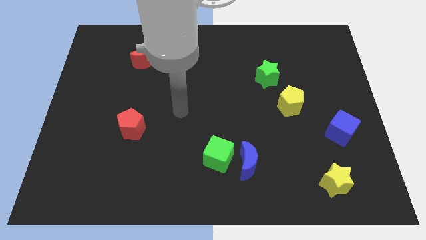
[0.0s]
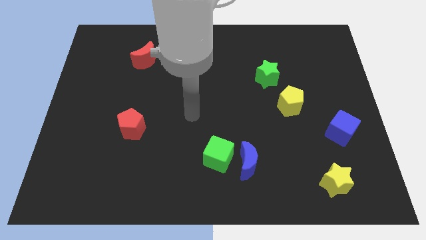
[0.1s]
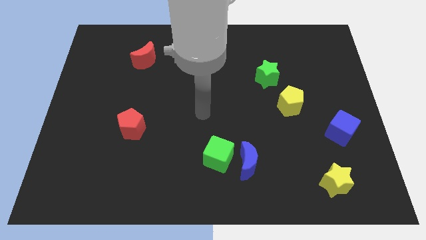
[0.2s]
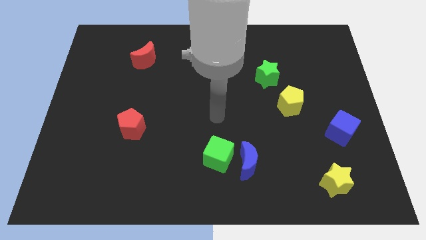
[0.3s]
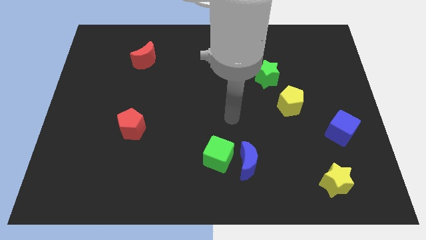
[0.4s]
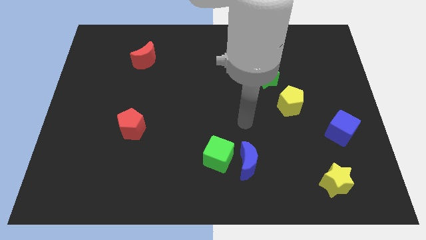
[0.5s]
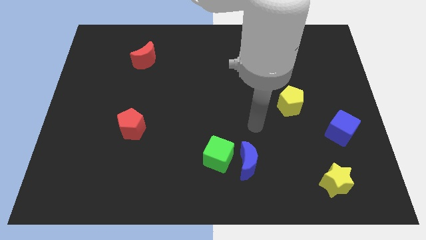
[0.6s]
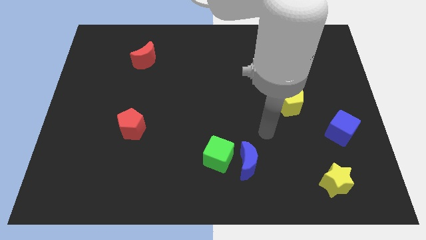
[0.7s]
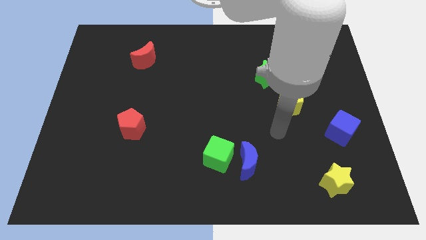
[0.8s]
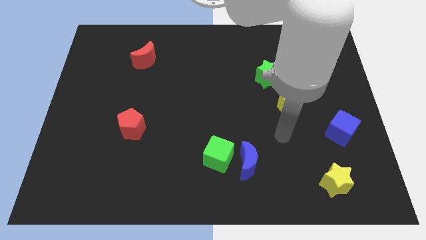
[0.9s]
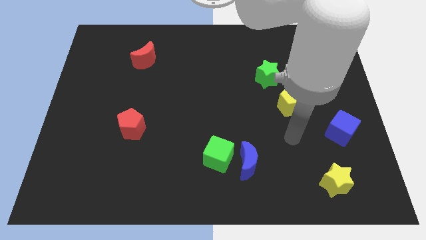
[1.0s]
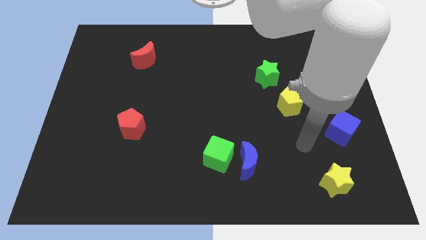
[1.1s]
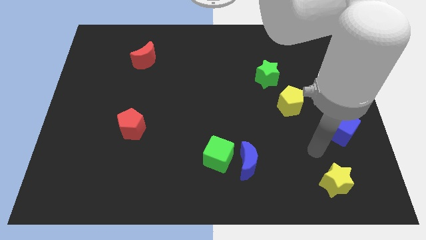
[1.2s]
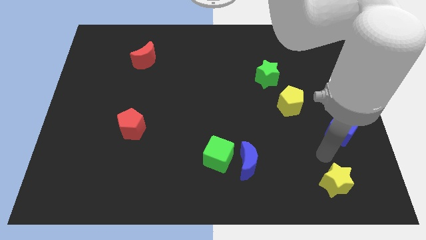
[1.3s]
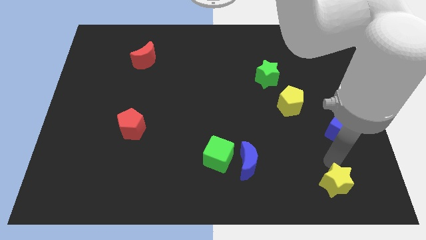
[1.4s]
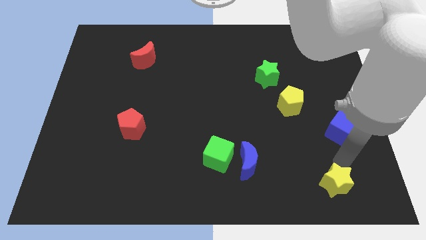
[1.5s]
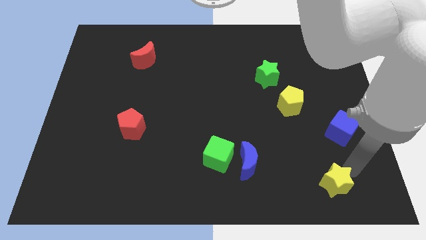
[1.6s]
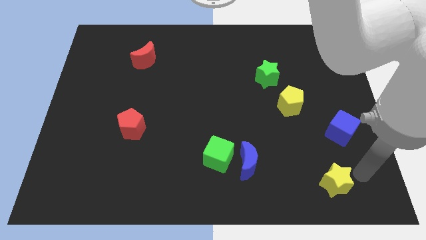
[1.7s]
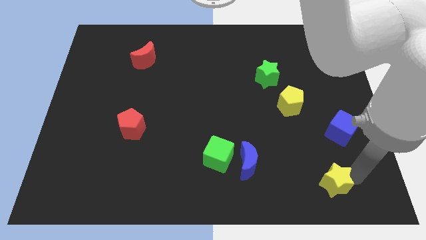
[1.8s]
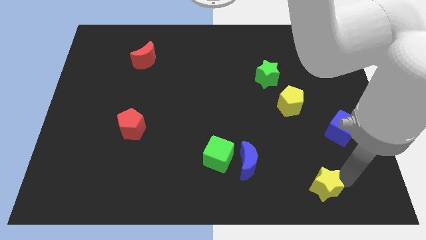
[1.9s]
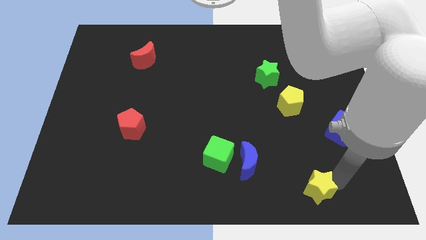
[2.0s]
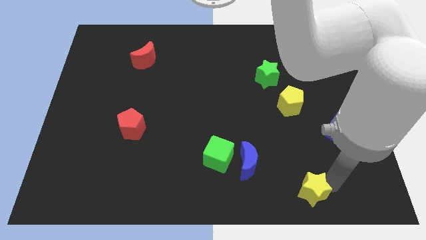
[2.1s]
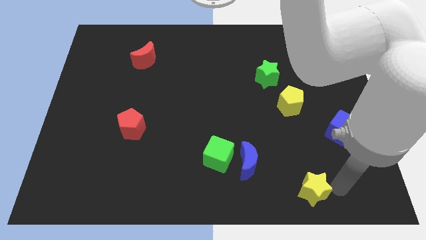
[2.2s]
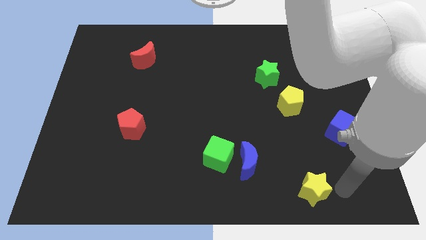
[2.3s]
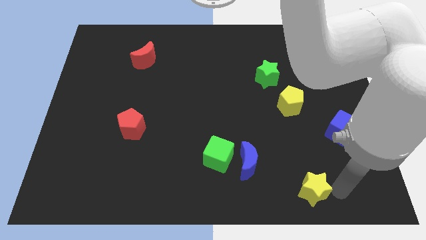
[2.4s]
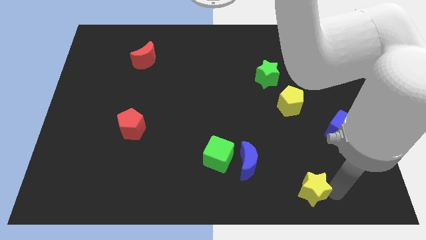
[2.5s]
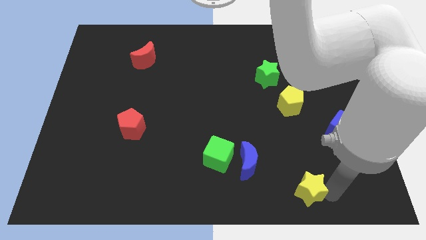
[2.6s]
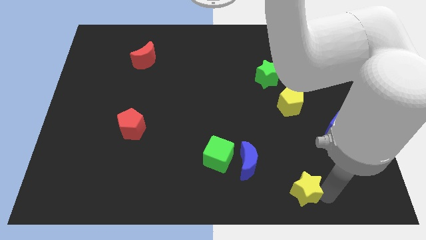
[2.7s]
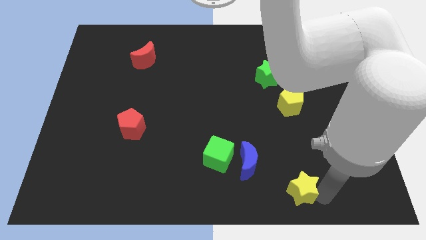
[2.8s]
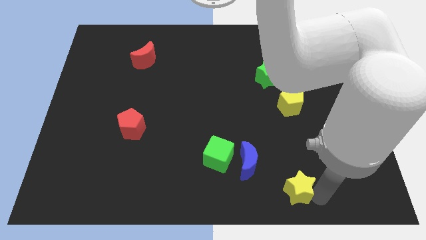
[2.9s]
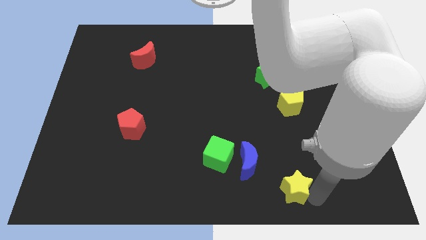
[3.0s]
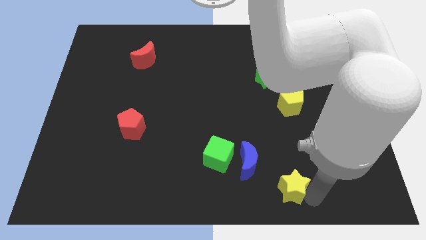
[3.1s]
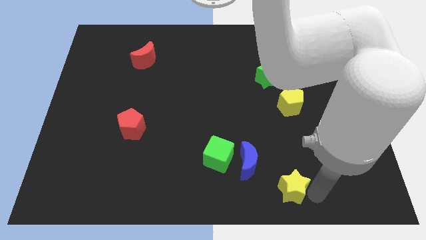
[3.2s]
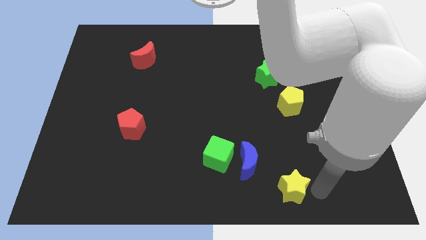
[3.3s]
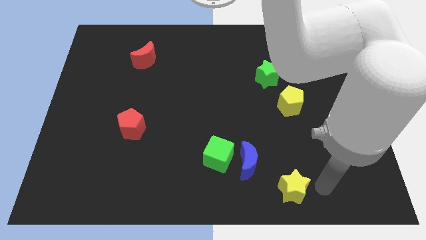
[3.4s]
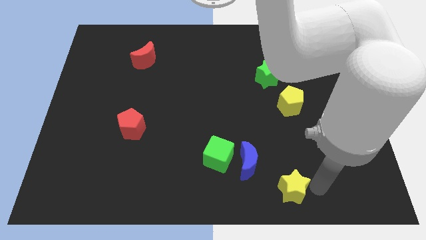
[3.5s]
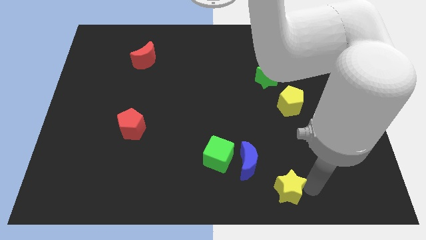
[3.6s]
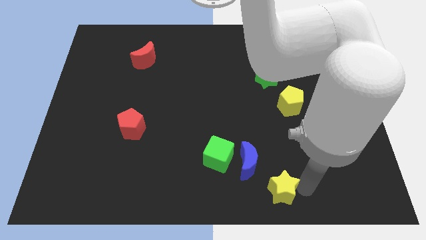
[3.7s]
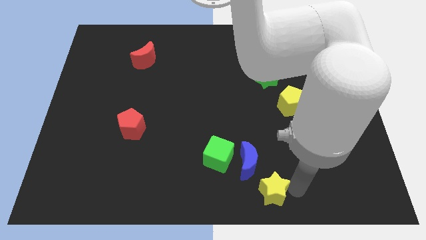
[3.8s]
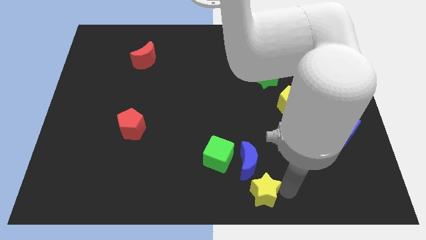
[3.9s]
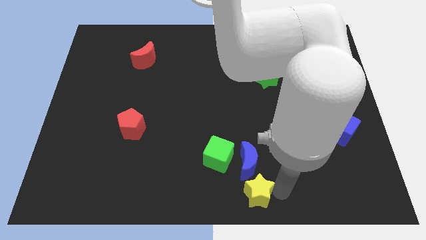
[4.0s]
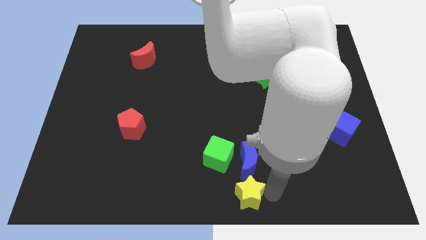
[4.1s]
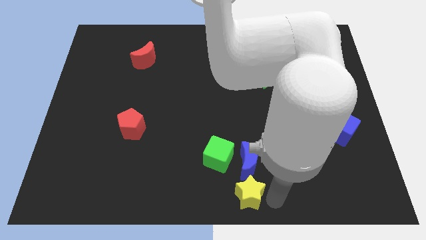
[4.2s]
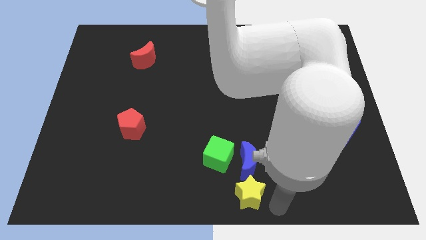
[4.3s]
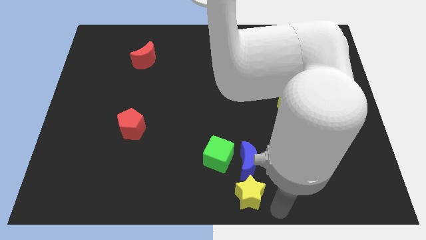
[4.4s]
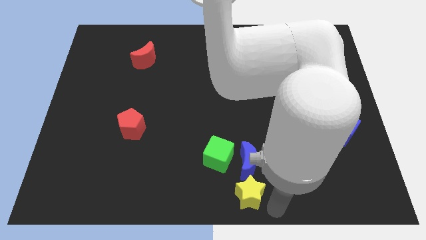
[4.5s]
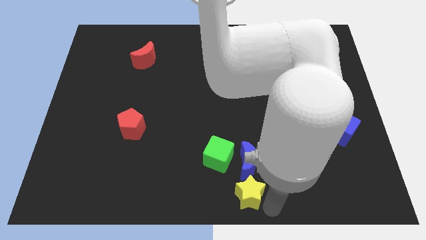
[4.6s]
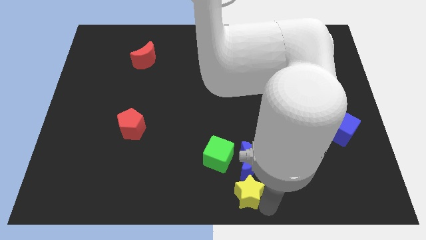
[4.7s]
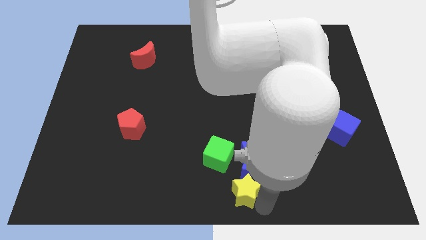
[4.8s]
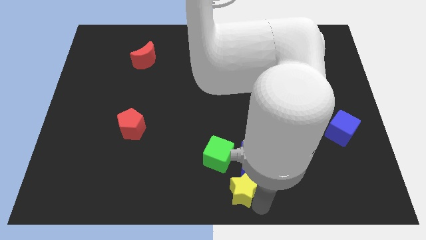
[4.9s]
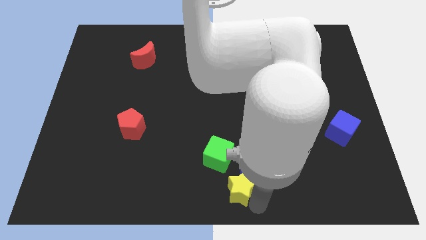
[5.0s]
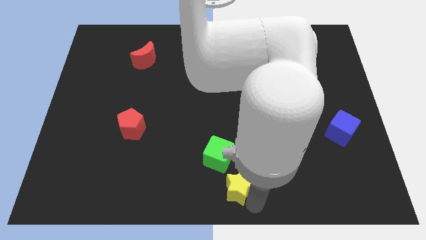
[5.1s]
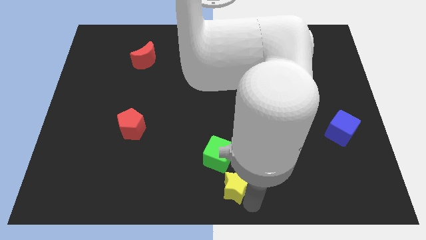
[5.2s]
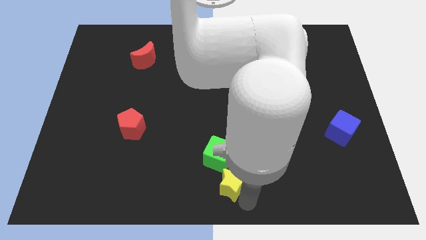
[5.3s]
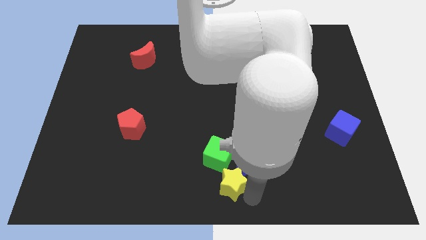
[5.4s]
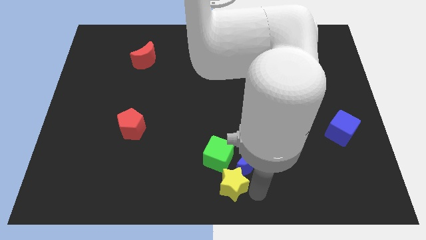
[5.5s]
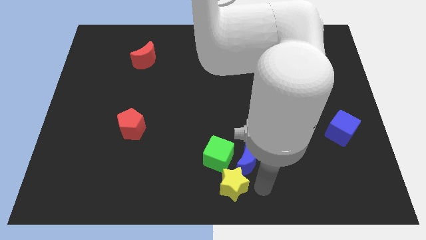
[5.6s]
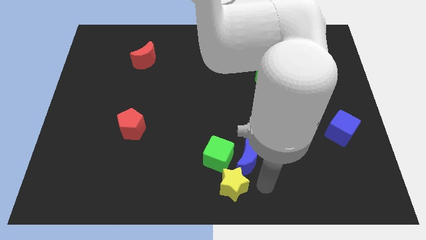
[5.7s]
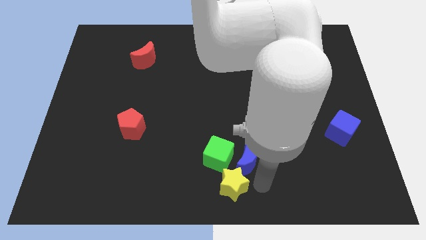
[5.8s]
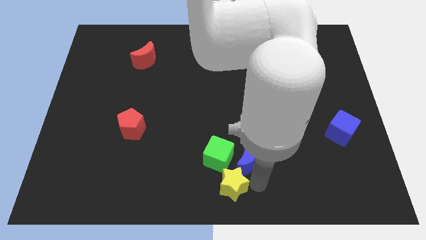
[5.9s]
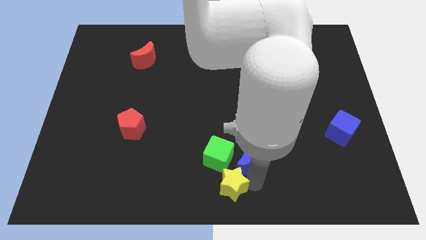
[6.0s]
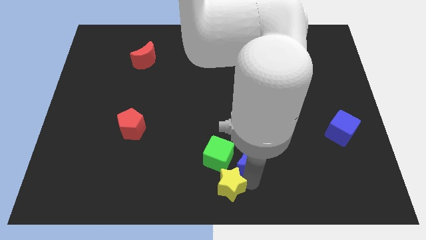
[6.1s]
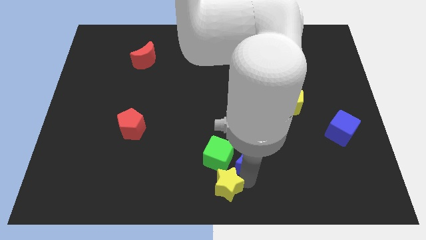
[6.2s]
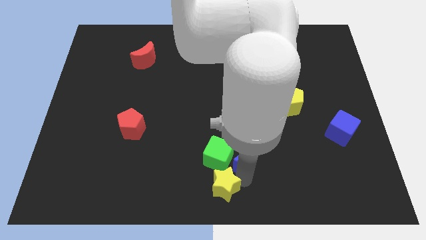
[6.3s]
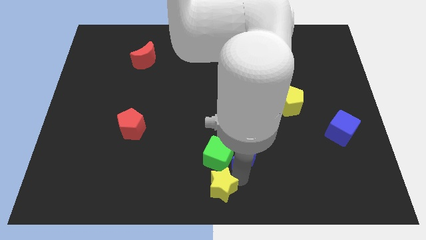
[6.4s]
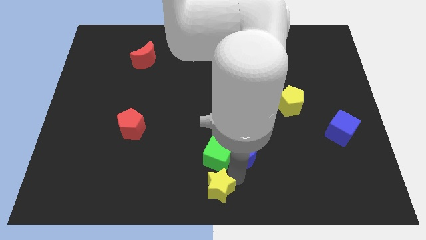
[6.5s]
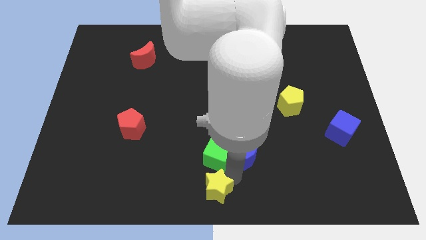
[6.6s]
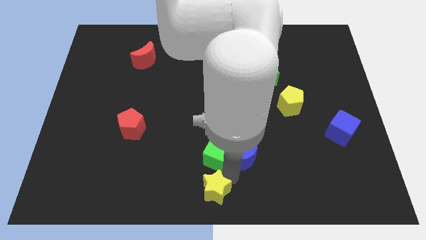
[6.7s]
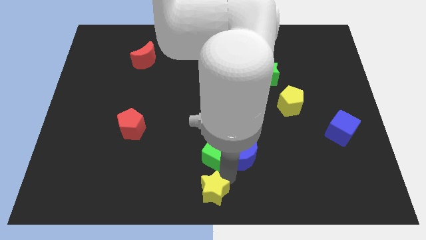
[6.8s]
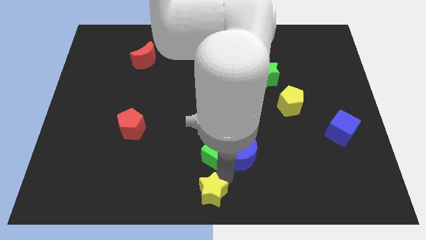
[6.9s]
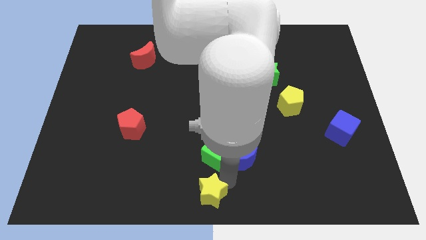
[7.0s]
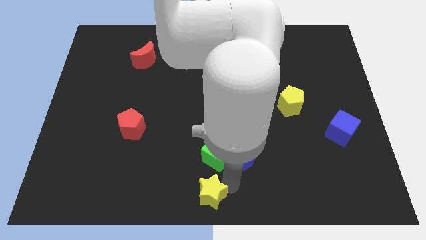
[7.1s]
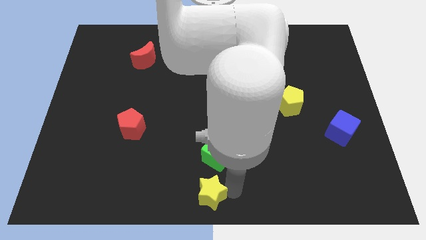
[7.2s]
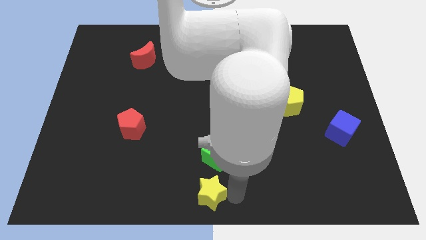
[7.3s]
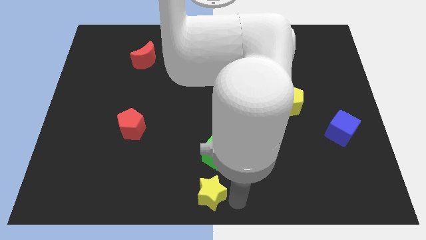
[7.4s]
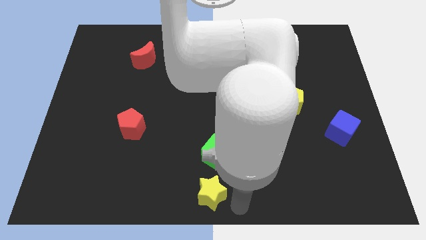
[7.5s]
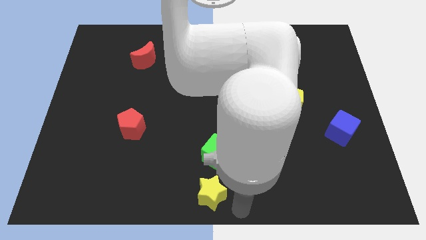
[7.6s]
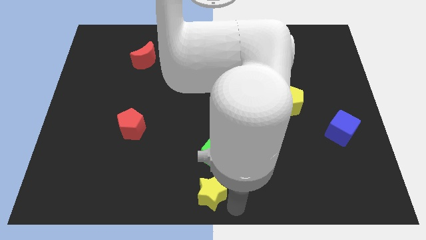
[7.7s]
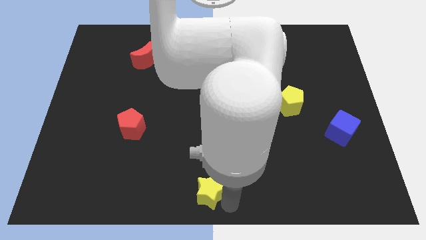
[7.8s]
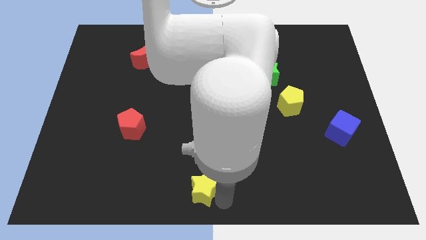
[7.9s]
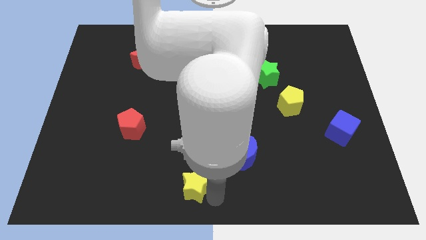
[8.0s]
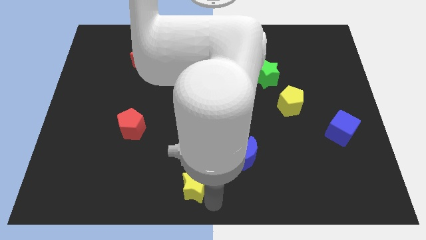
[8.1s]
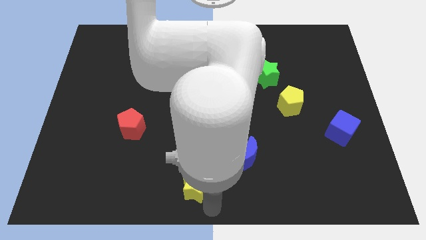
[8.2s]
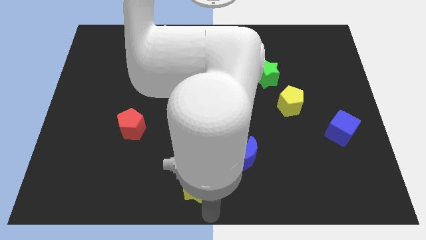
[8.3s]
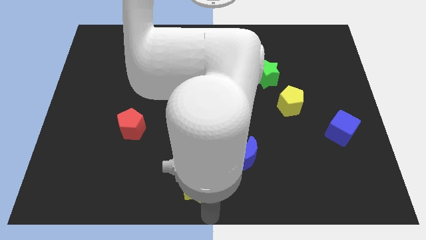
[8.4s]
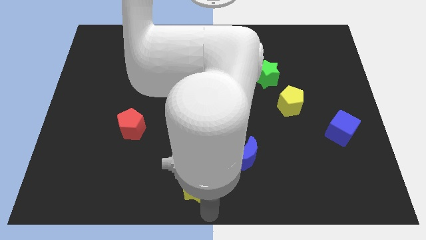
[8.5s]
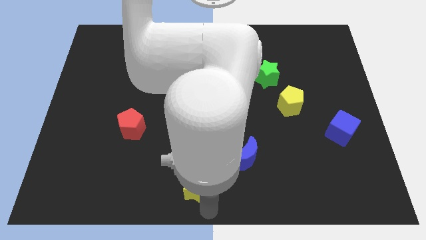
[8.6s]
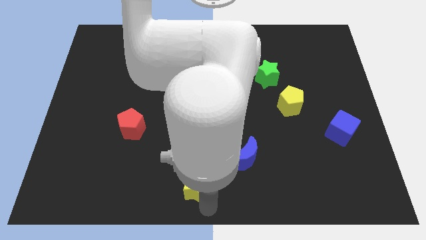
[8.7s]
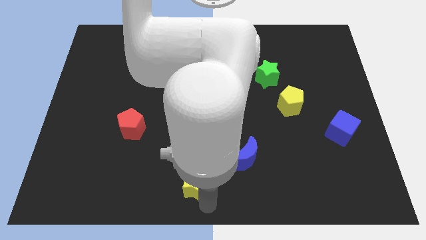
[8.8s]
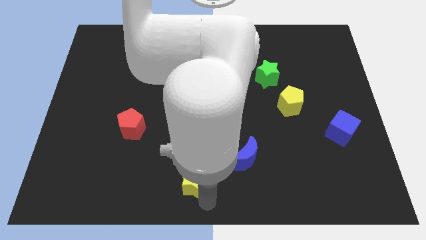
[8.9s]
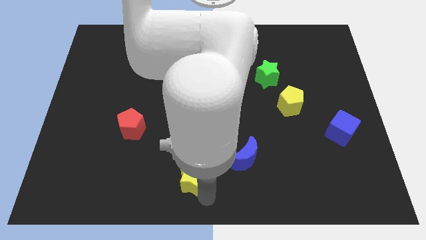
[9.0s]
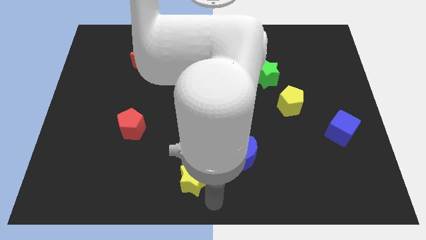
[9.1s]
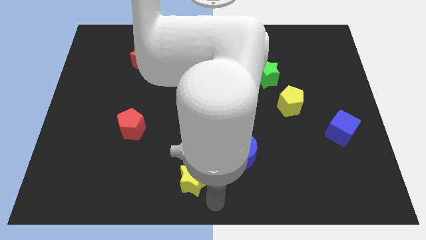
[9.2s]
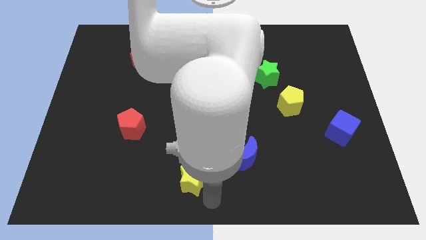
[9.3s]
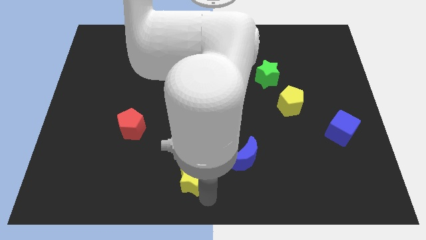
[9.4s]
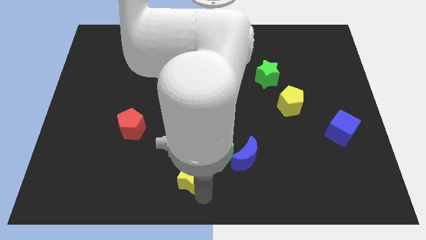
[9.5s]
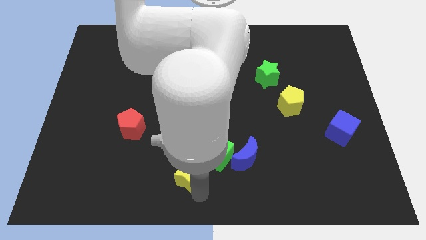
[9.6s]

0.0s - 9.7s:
slide the yellow star to the left side of the green cube
